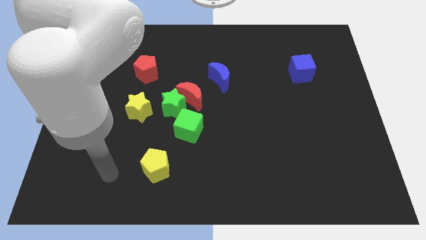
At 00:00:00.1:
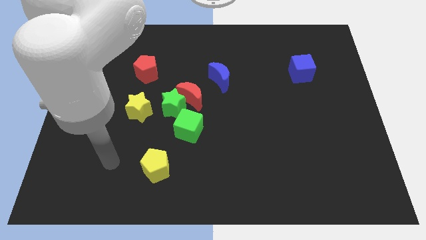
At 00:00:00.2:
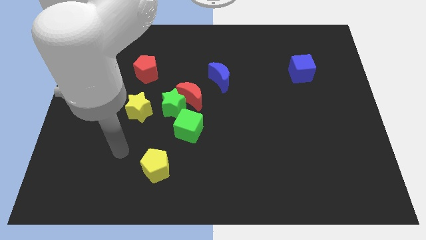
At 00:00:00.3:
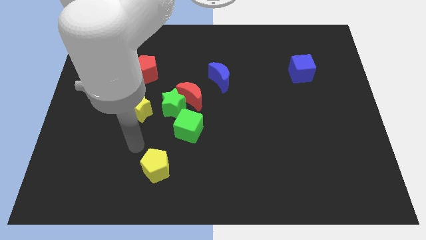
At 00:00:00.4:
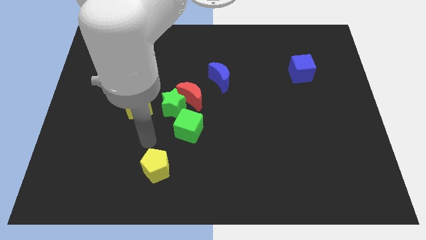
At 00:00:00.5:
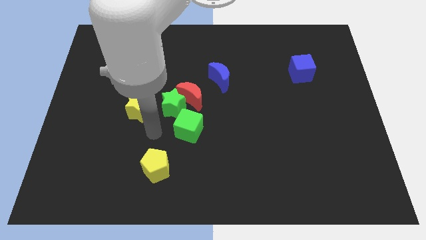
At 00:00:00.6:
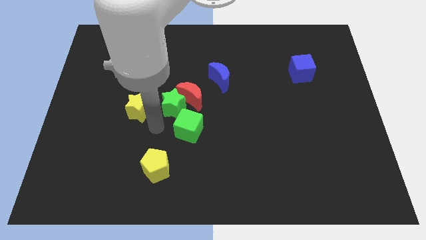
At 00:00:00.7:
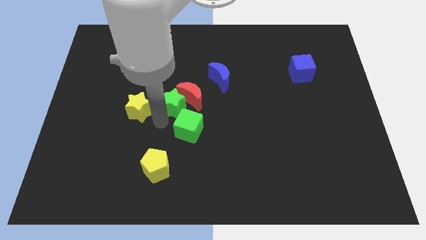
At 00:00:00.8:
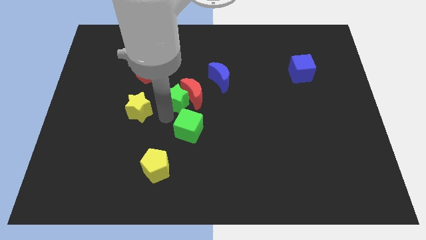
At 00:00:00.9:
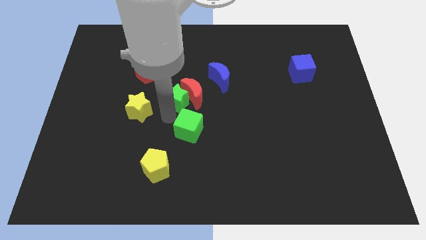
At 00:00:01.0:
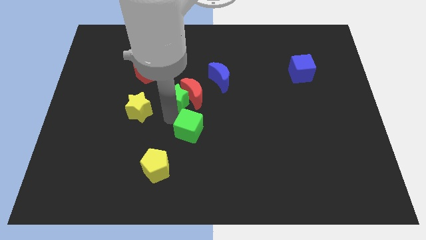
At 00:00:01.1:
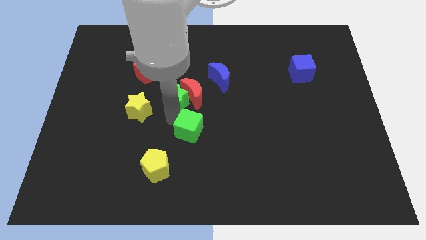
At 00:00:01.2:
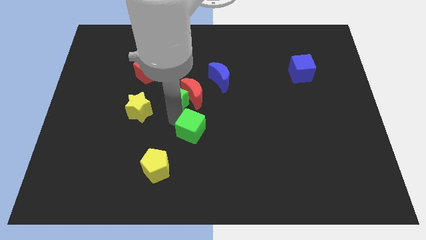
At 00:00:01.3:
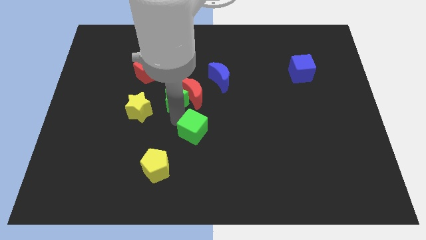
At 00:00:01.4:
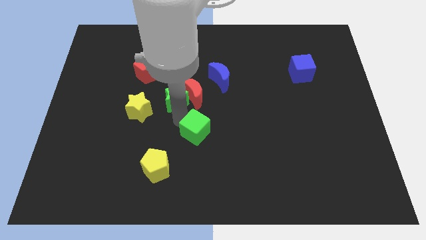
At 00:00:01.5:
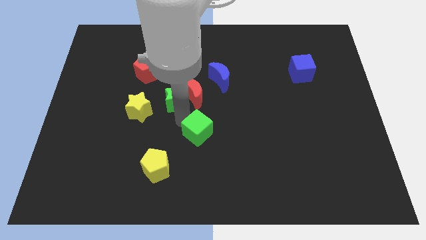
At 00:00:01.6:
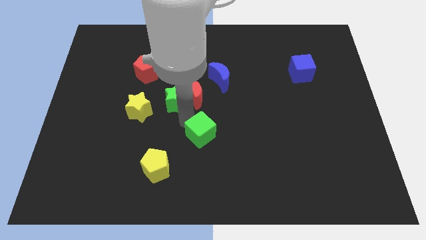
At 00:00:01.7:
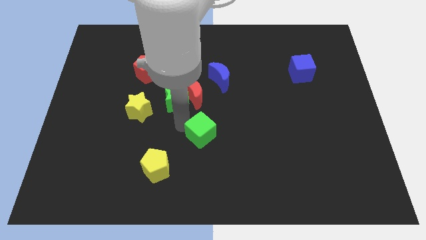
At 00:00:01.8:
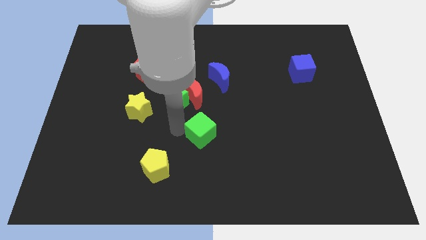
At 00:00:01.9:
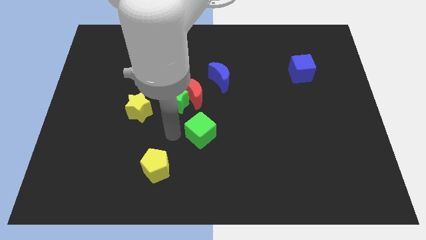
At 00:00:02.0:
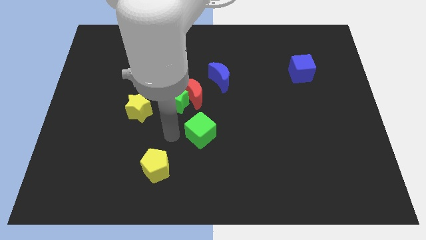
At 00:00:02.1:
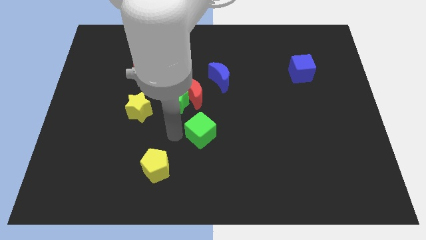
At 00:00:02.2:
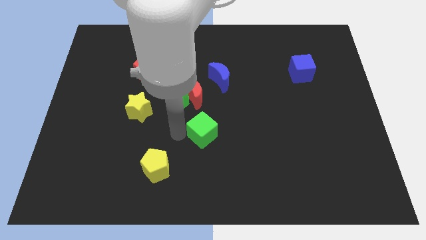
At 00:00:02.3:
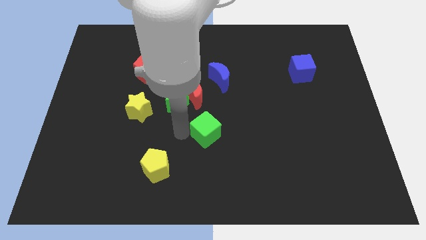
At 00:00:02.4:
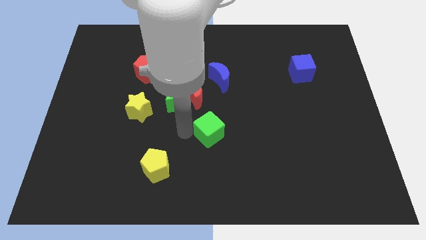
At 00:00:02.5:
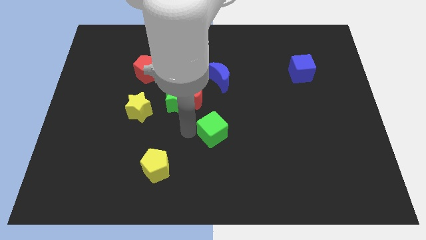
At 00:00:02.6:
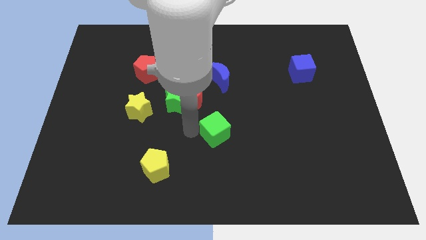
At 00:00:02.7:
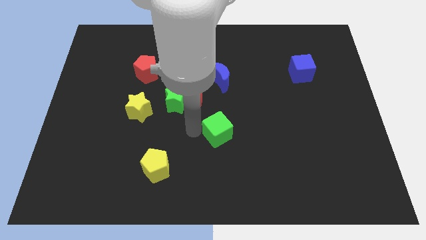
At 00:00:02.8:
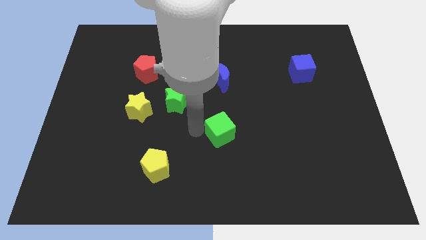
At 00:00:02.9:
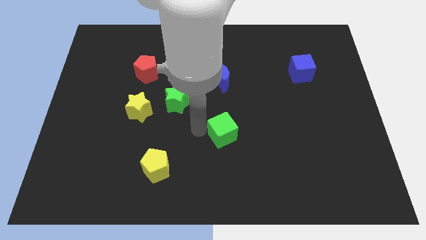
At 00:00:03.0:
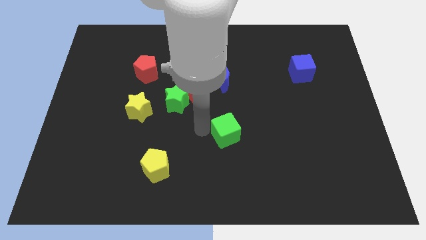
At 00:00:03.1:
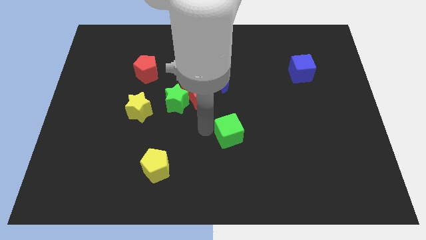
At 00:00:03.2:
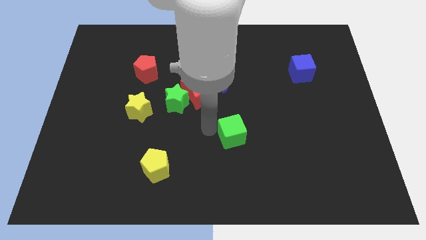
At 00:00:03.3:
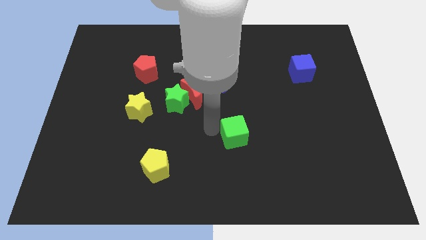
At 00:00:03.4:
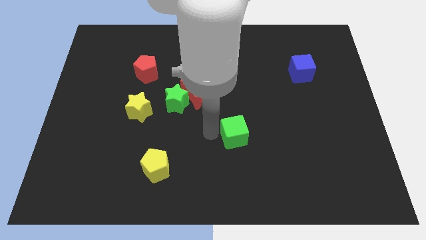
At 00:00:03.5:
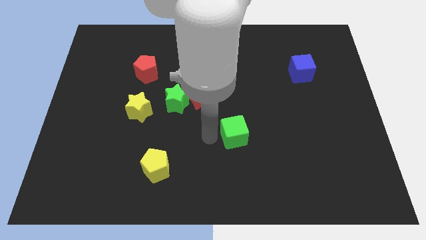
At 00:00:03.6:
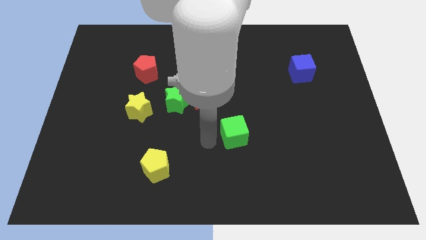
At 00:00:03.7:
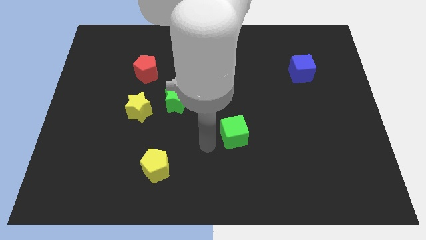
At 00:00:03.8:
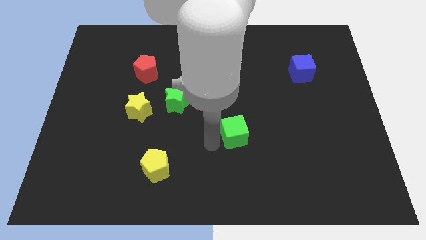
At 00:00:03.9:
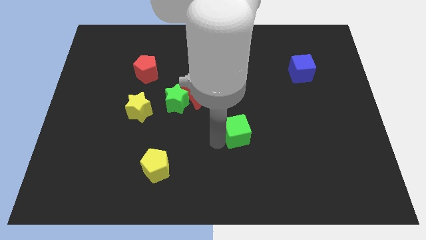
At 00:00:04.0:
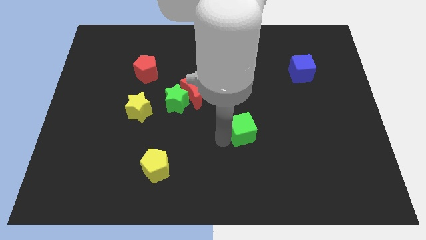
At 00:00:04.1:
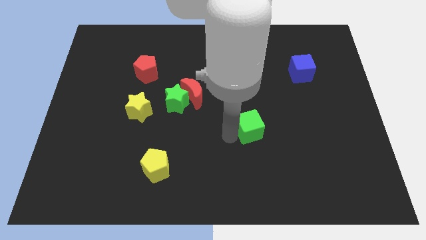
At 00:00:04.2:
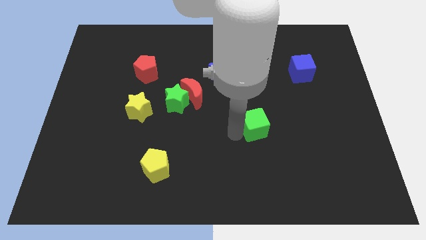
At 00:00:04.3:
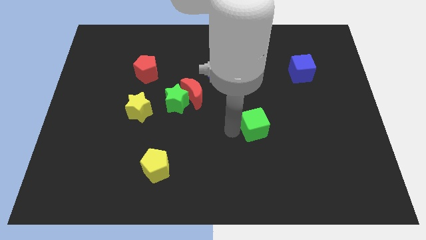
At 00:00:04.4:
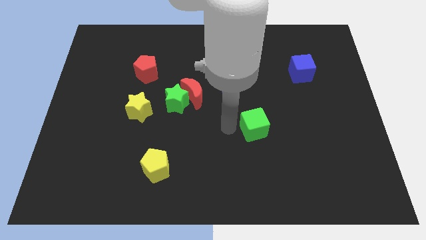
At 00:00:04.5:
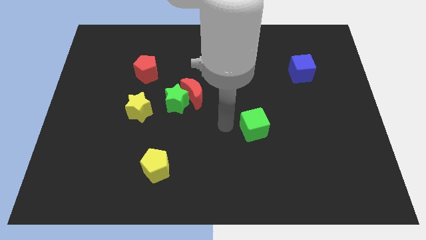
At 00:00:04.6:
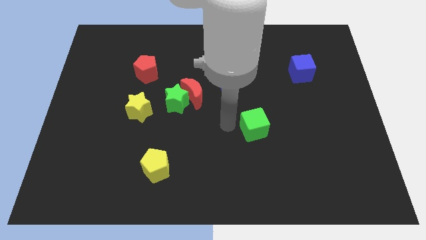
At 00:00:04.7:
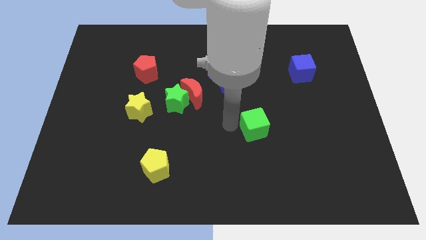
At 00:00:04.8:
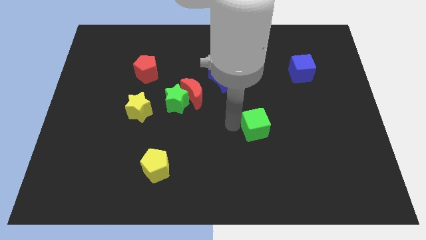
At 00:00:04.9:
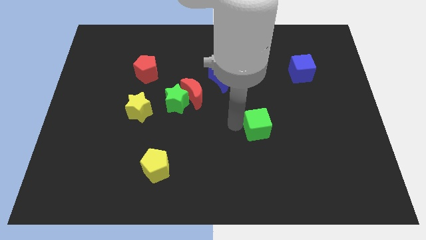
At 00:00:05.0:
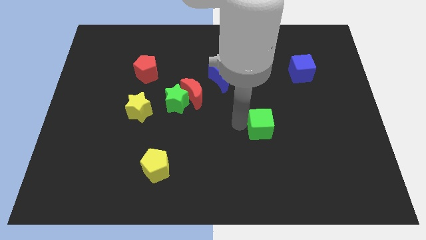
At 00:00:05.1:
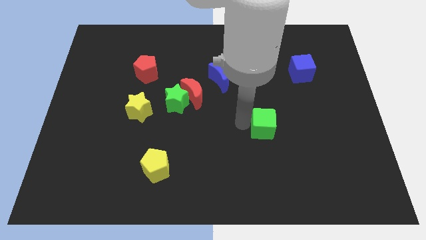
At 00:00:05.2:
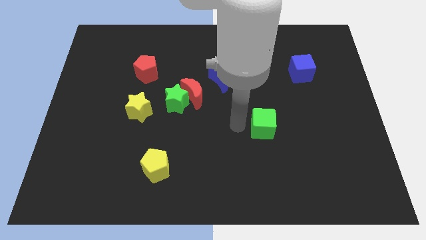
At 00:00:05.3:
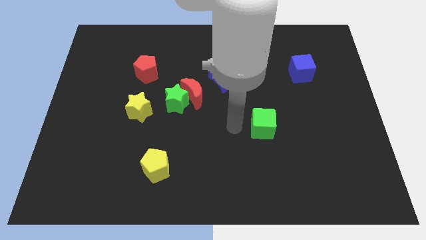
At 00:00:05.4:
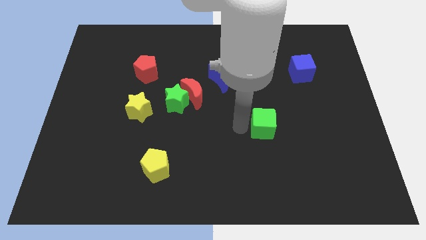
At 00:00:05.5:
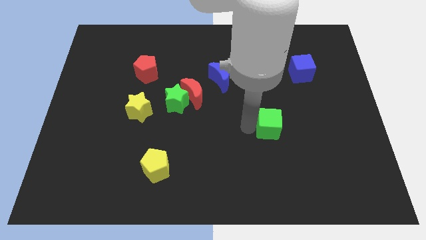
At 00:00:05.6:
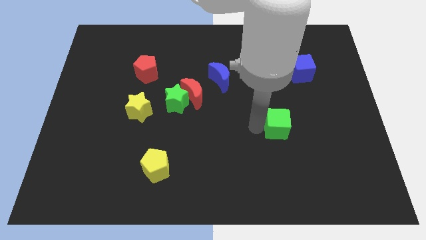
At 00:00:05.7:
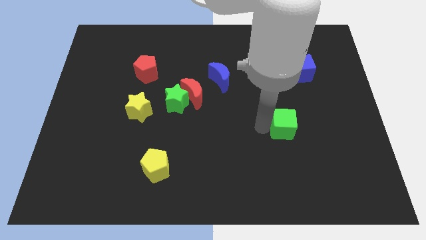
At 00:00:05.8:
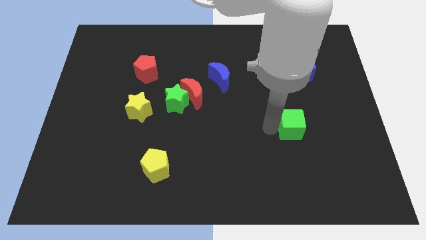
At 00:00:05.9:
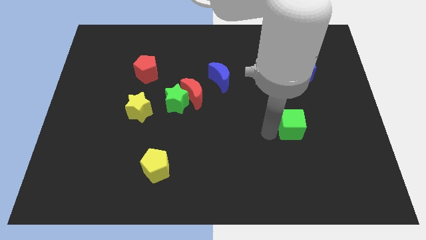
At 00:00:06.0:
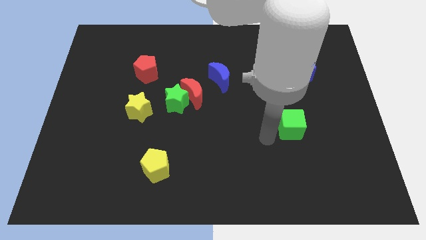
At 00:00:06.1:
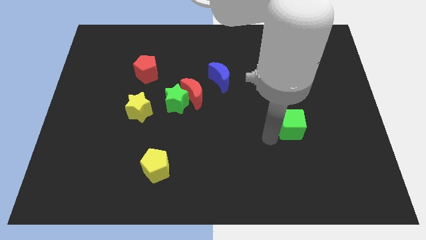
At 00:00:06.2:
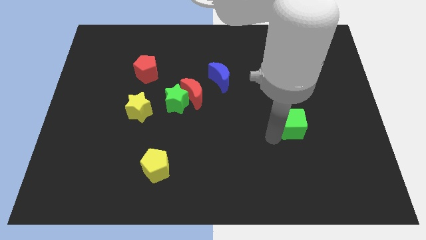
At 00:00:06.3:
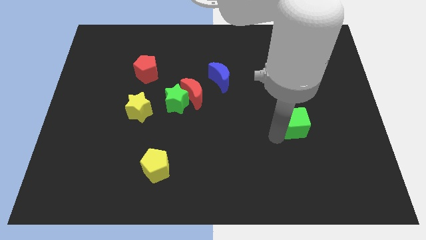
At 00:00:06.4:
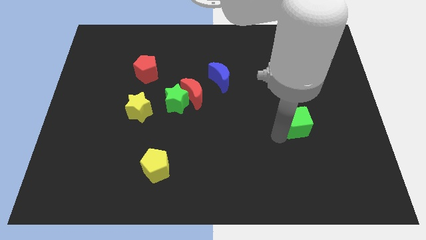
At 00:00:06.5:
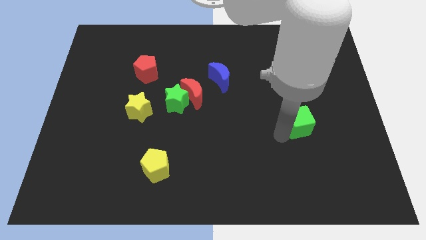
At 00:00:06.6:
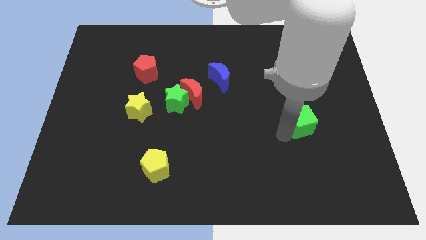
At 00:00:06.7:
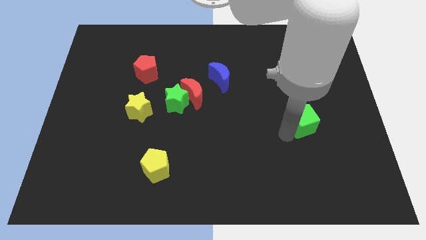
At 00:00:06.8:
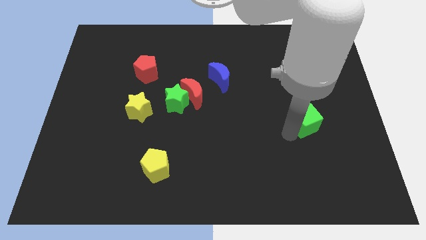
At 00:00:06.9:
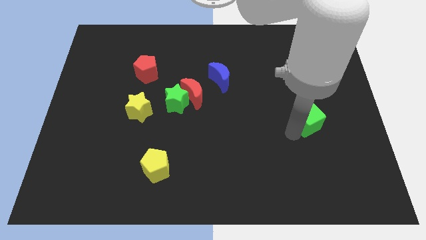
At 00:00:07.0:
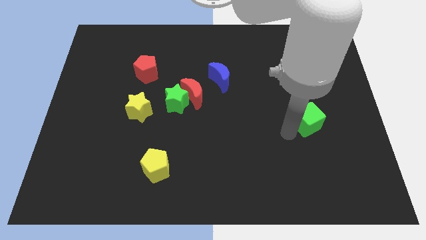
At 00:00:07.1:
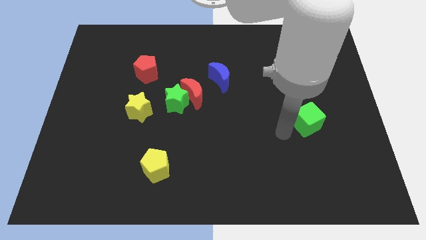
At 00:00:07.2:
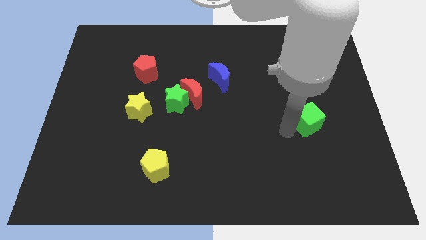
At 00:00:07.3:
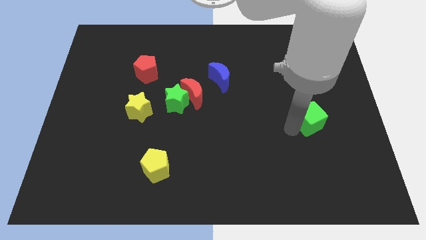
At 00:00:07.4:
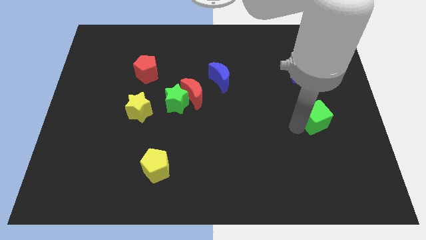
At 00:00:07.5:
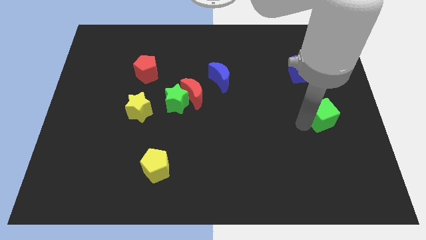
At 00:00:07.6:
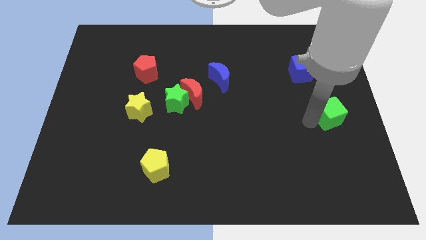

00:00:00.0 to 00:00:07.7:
put the green cube to the right side of the board
